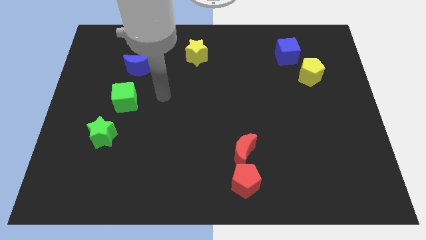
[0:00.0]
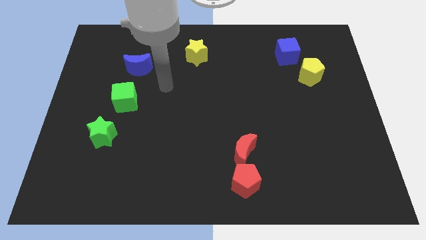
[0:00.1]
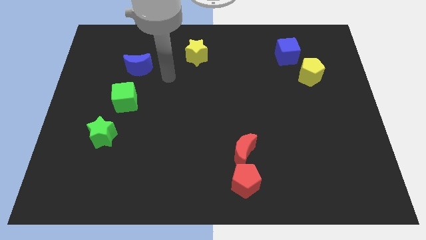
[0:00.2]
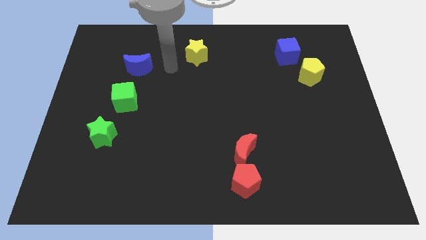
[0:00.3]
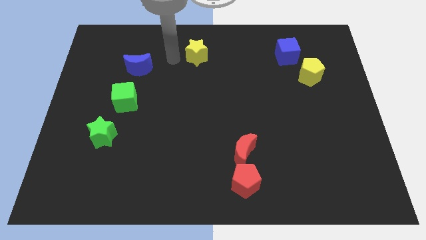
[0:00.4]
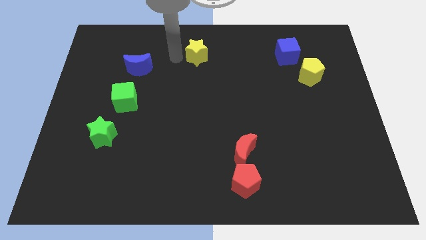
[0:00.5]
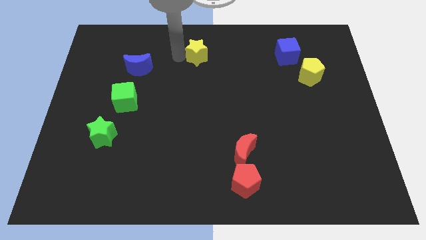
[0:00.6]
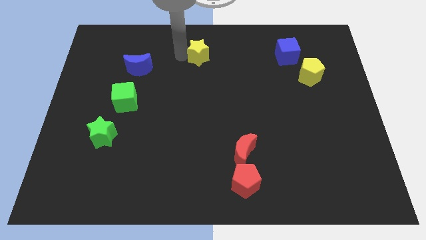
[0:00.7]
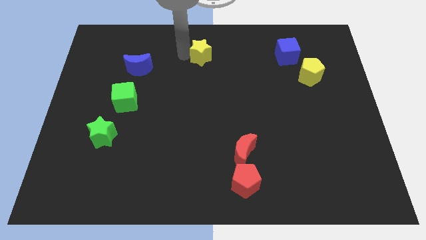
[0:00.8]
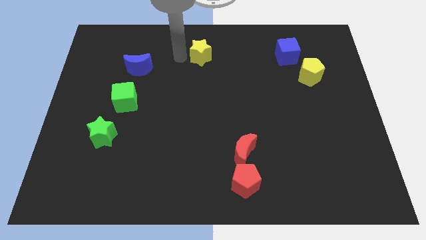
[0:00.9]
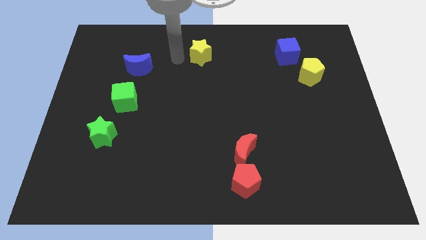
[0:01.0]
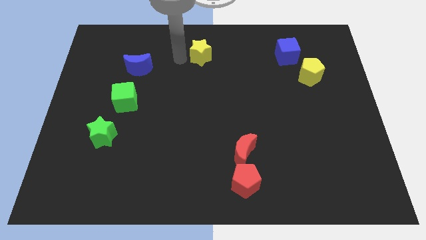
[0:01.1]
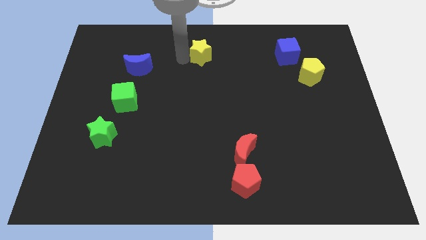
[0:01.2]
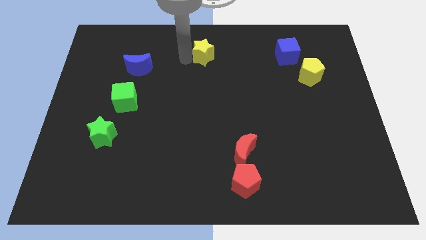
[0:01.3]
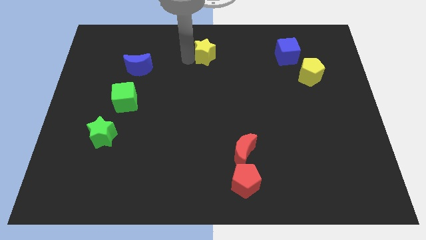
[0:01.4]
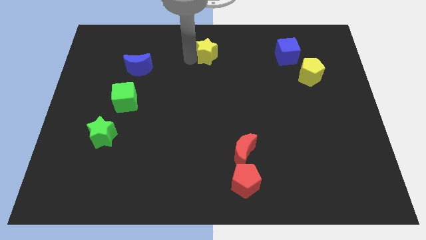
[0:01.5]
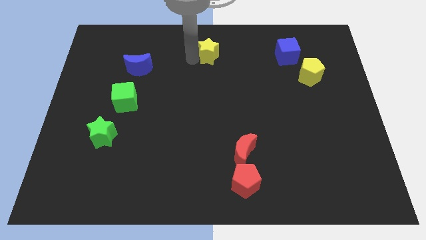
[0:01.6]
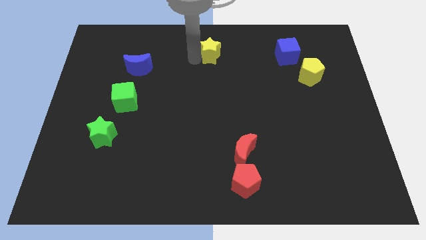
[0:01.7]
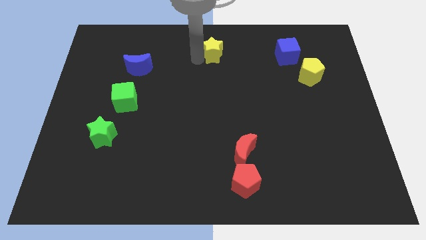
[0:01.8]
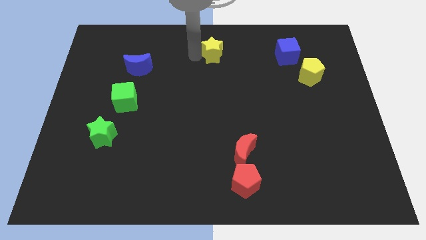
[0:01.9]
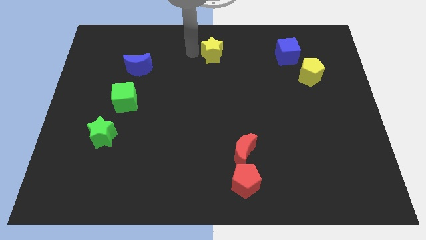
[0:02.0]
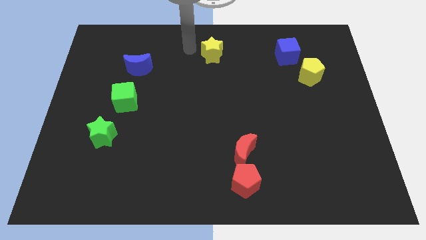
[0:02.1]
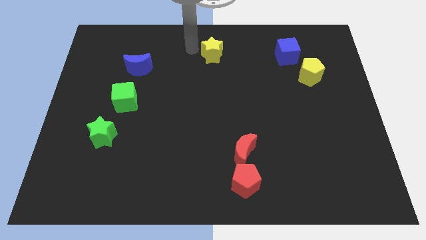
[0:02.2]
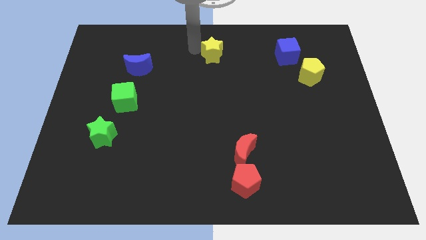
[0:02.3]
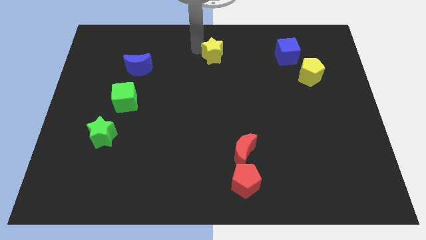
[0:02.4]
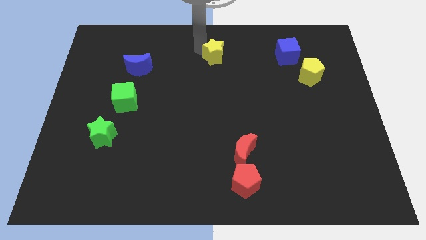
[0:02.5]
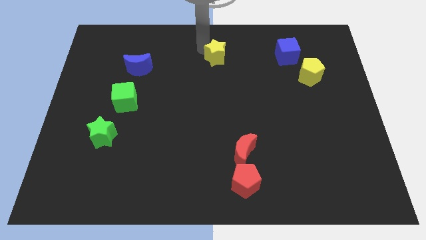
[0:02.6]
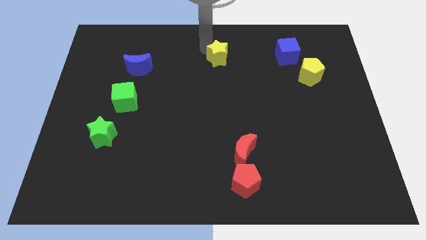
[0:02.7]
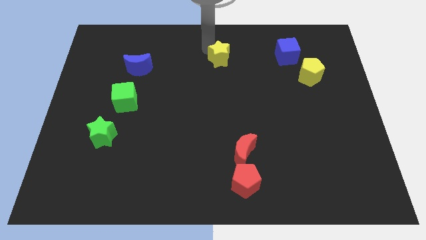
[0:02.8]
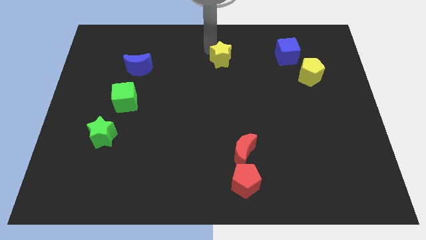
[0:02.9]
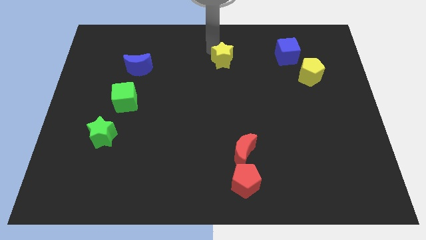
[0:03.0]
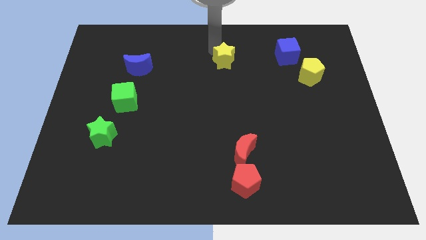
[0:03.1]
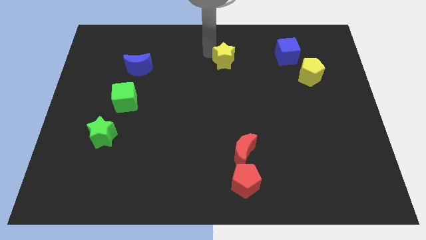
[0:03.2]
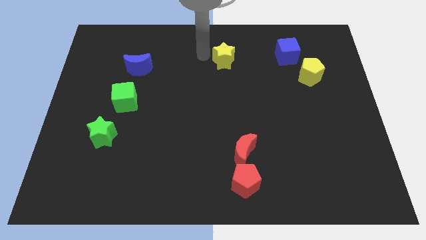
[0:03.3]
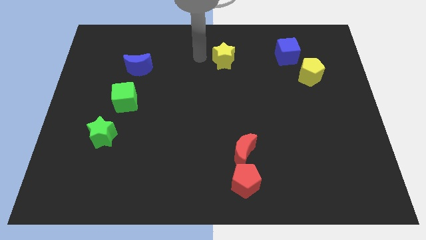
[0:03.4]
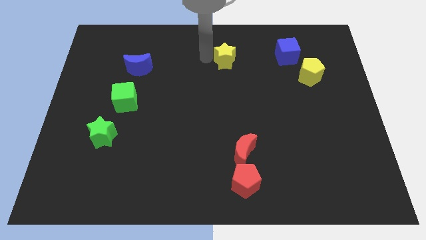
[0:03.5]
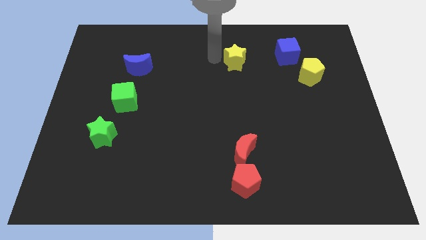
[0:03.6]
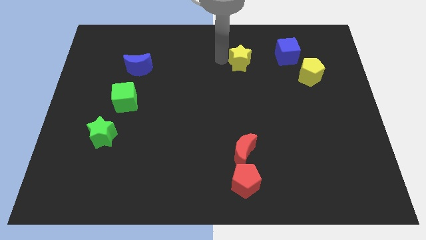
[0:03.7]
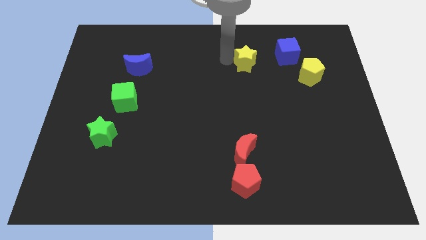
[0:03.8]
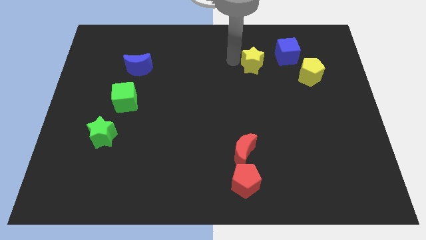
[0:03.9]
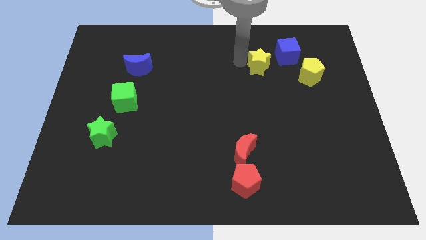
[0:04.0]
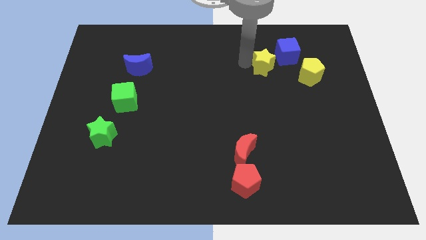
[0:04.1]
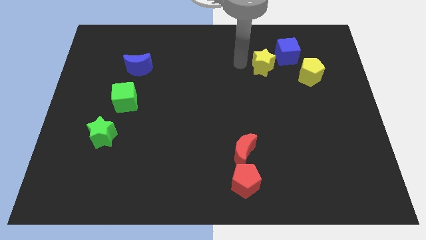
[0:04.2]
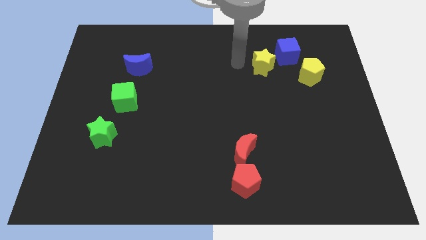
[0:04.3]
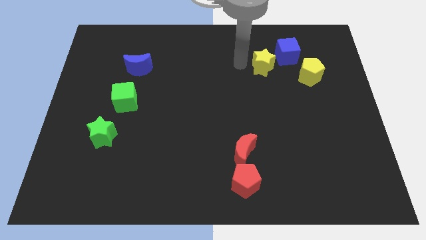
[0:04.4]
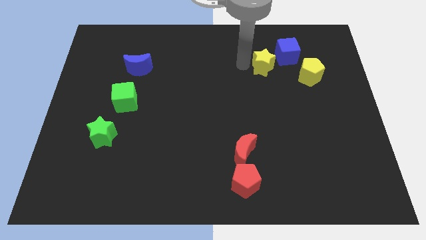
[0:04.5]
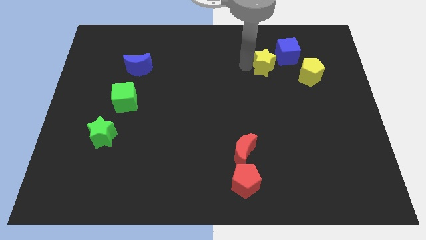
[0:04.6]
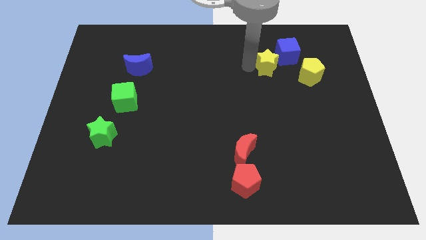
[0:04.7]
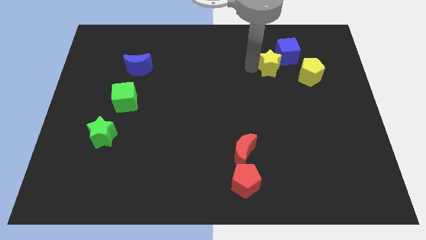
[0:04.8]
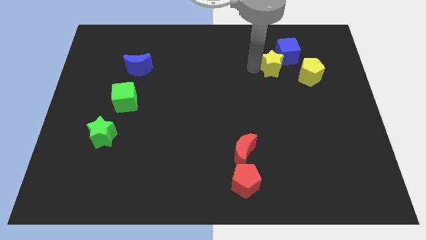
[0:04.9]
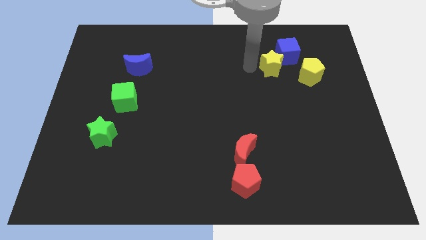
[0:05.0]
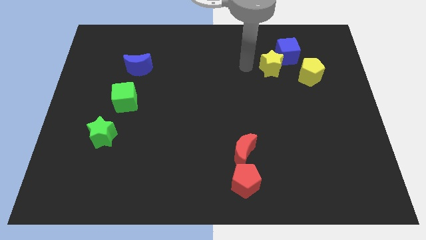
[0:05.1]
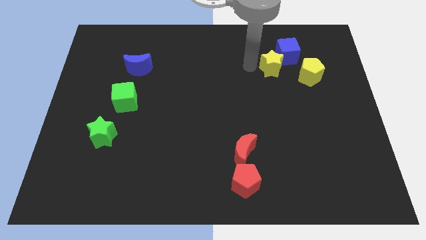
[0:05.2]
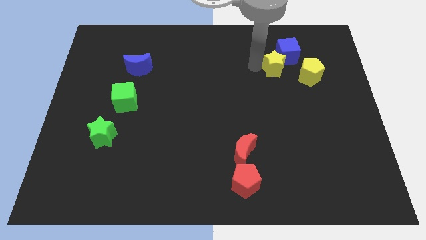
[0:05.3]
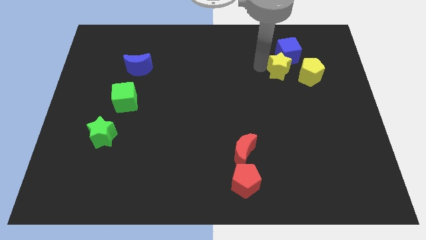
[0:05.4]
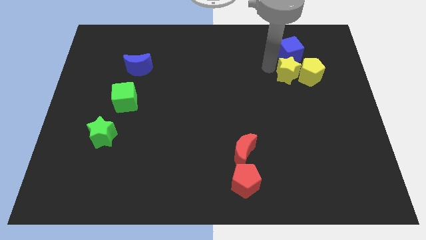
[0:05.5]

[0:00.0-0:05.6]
move the yellow star close to the yellow pentagon
